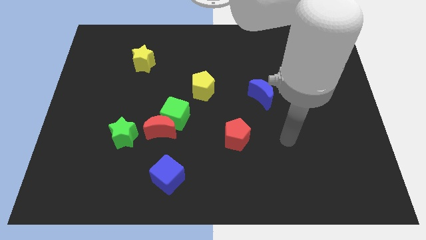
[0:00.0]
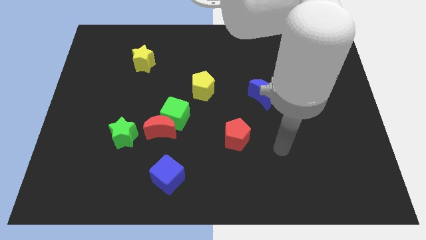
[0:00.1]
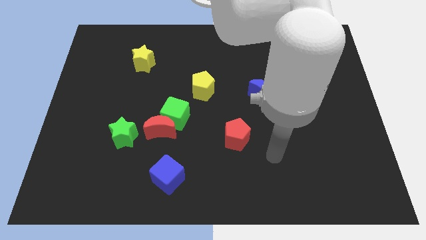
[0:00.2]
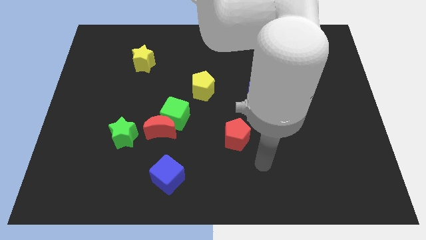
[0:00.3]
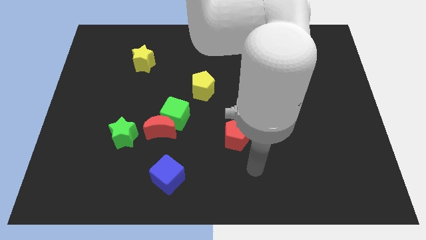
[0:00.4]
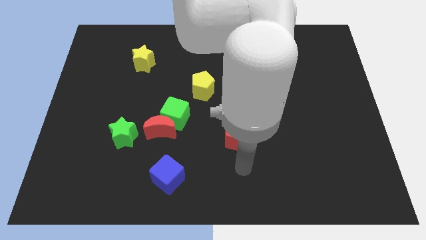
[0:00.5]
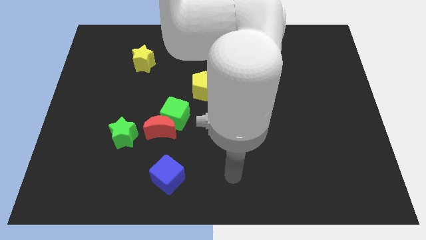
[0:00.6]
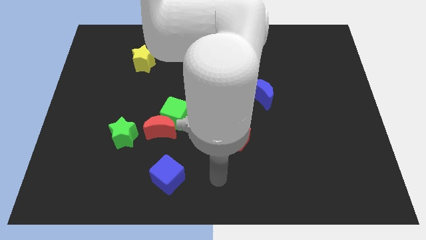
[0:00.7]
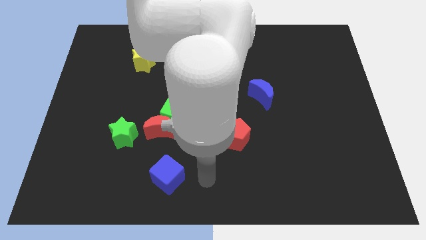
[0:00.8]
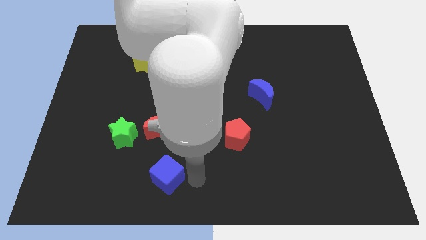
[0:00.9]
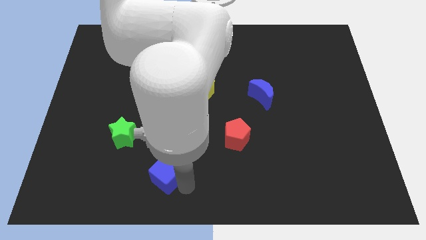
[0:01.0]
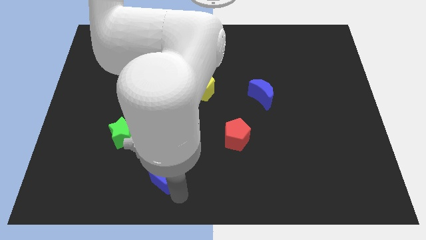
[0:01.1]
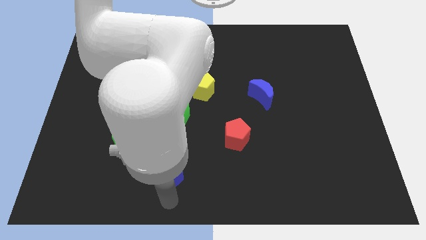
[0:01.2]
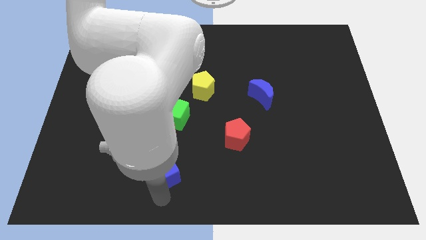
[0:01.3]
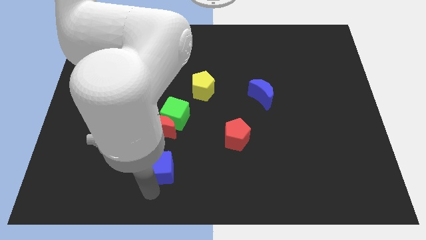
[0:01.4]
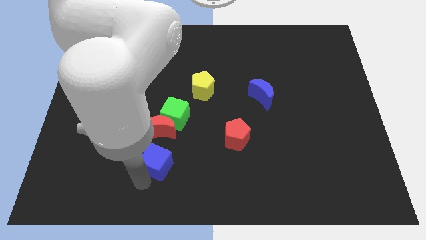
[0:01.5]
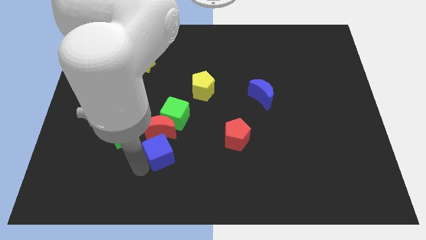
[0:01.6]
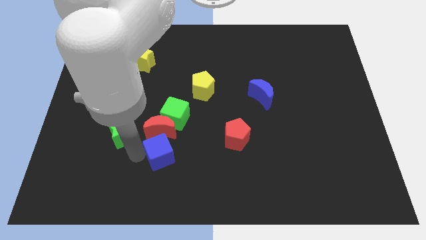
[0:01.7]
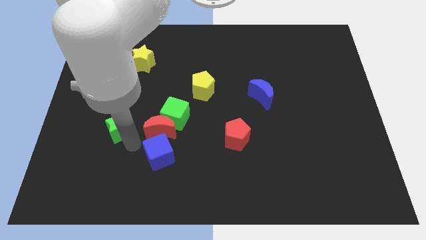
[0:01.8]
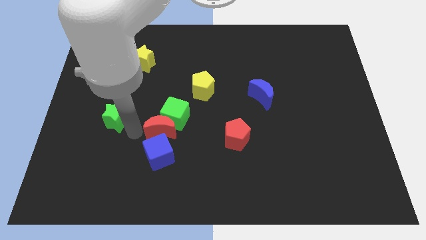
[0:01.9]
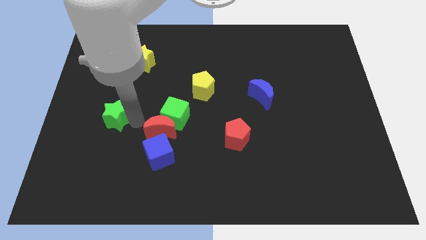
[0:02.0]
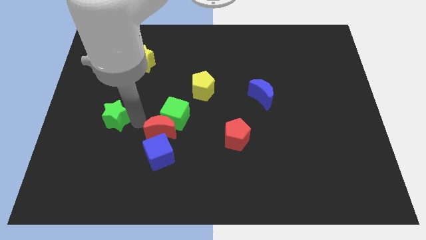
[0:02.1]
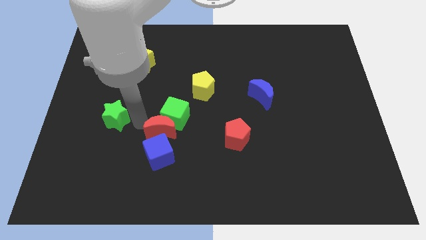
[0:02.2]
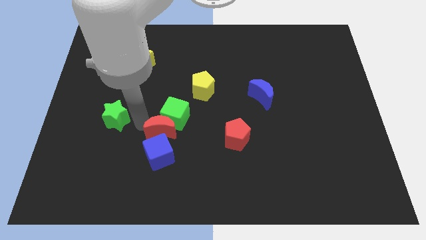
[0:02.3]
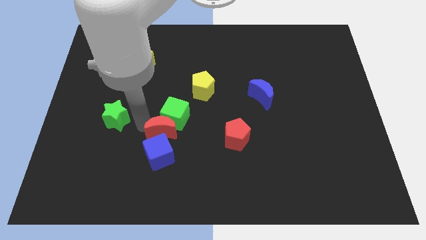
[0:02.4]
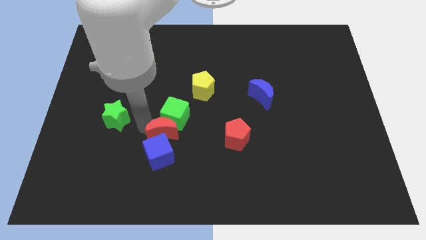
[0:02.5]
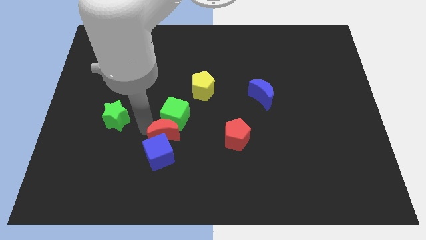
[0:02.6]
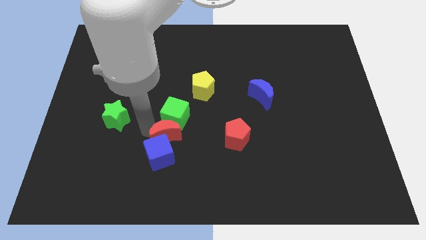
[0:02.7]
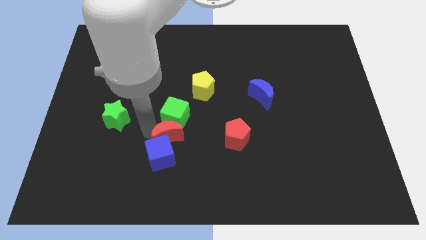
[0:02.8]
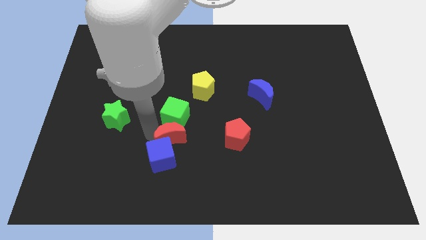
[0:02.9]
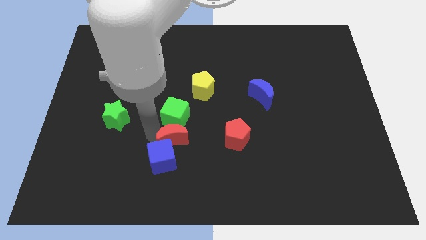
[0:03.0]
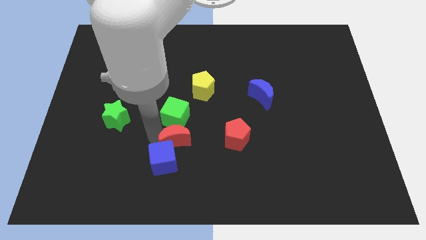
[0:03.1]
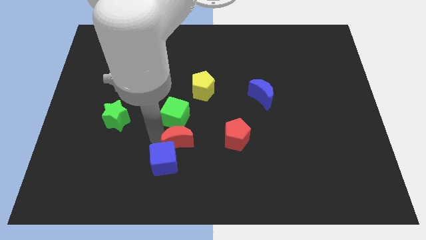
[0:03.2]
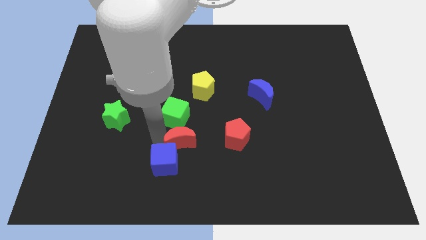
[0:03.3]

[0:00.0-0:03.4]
separate the red moon from the green cube and green star

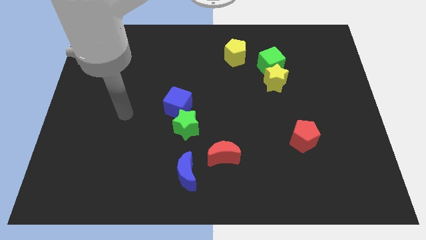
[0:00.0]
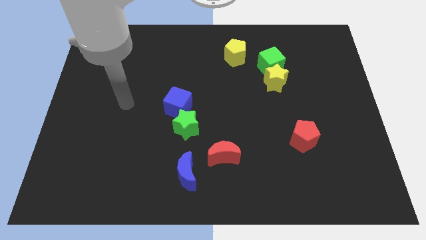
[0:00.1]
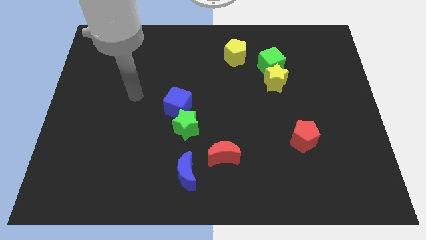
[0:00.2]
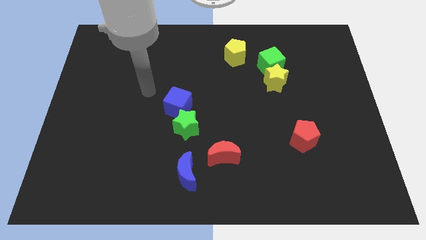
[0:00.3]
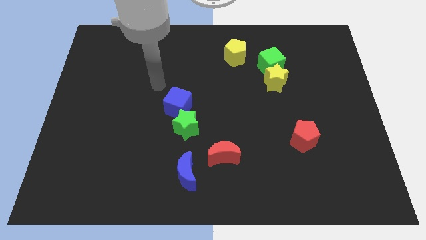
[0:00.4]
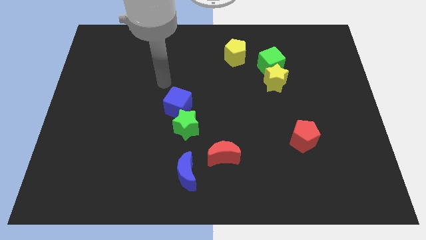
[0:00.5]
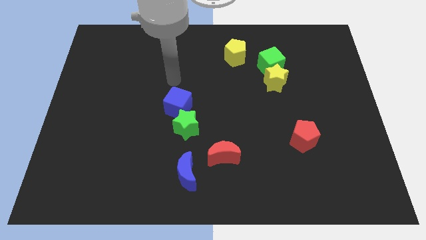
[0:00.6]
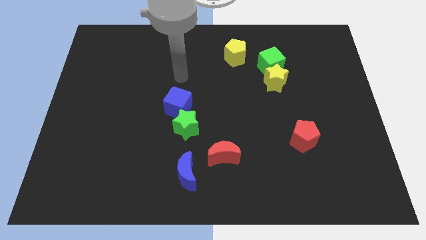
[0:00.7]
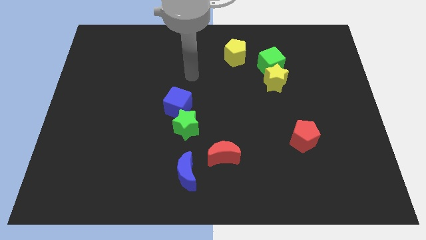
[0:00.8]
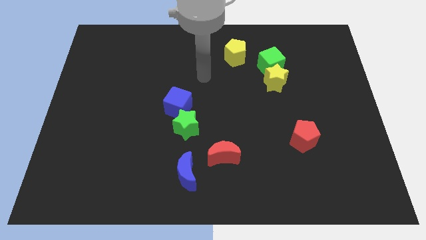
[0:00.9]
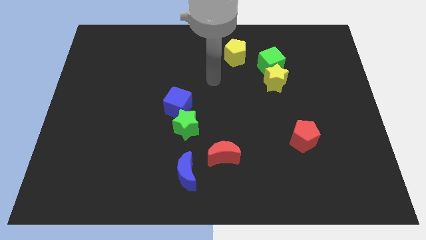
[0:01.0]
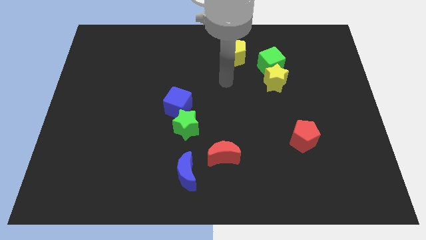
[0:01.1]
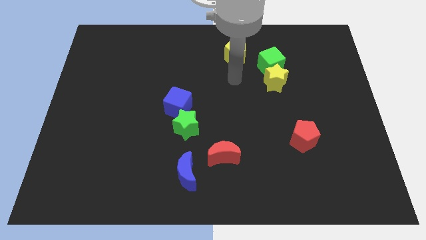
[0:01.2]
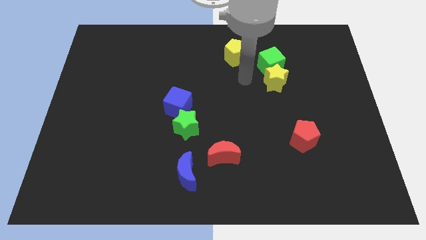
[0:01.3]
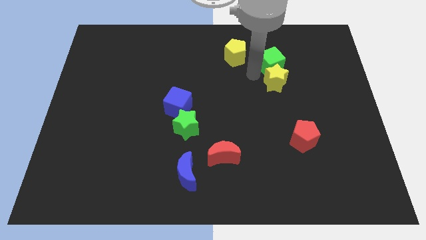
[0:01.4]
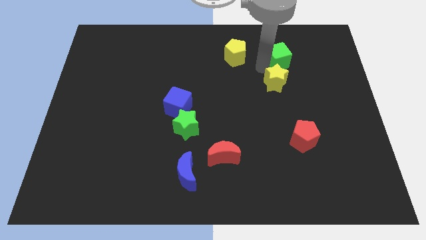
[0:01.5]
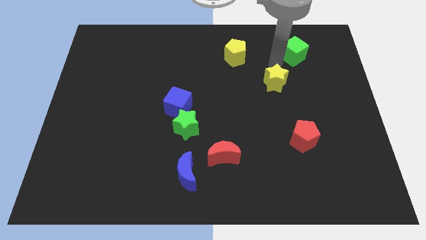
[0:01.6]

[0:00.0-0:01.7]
separate the yellow star from the green cube

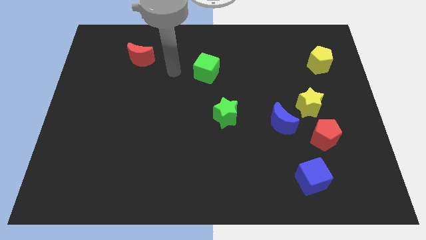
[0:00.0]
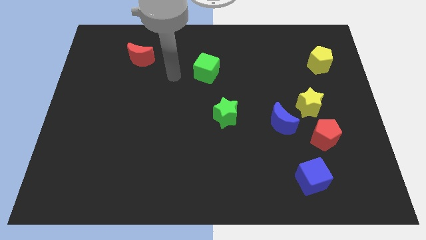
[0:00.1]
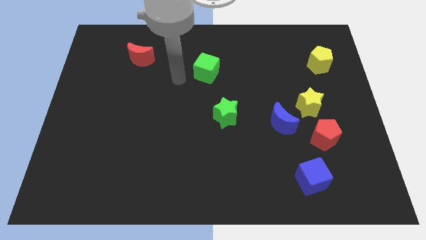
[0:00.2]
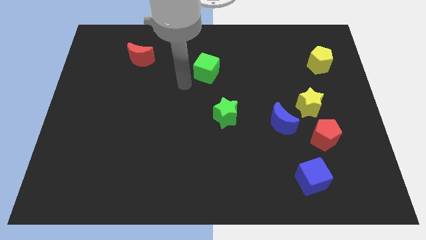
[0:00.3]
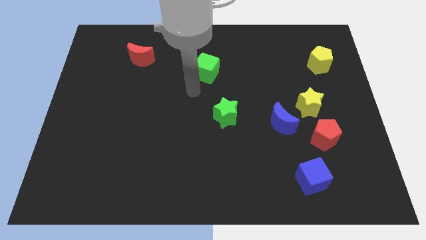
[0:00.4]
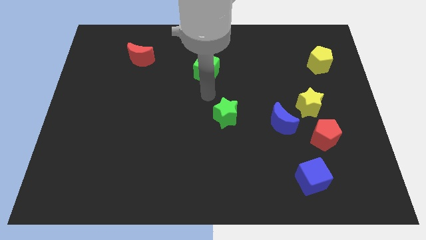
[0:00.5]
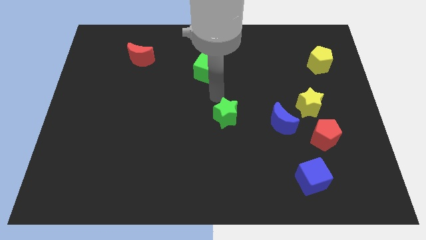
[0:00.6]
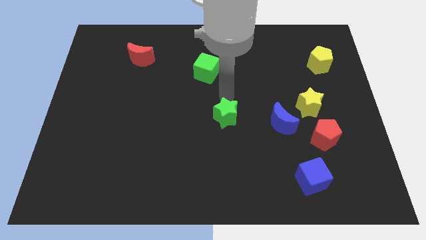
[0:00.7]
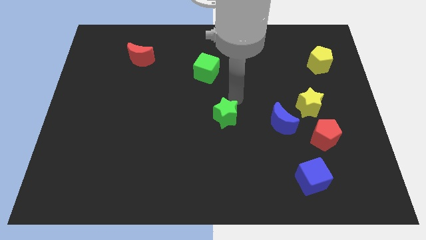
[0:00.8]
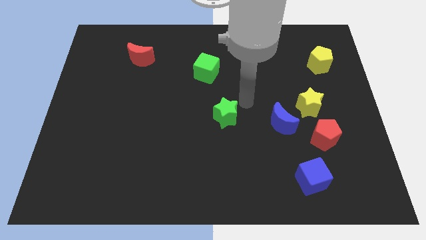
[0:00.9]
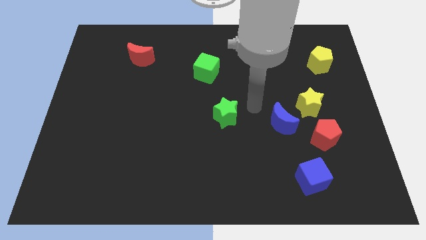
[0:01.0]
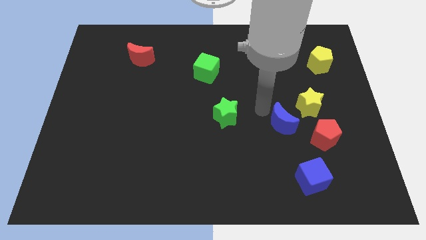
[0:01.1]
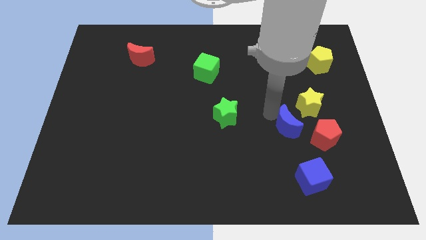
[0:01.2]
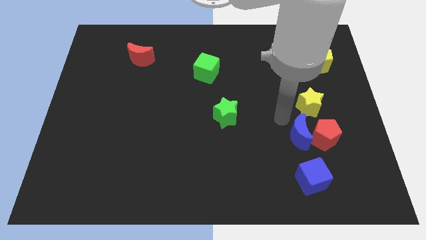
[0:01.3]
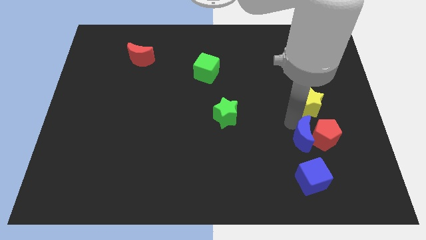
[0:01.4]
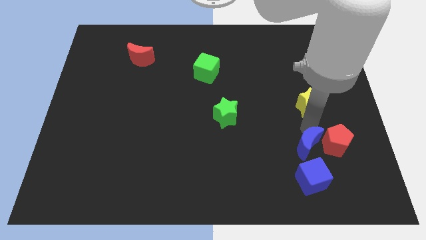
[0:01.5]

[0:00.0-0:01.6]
move the yellow star away from the blue moon and red pentagon

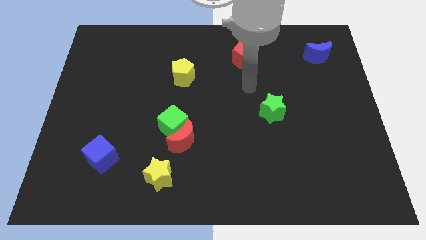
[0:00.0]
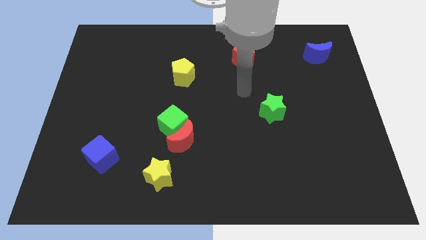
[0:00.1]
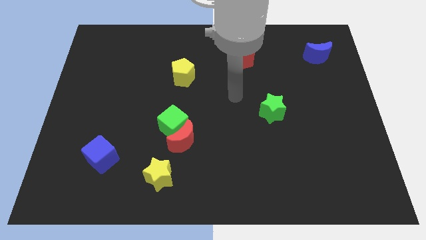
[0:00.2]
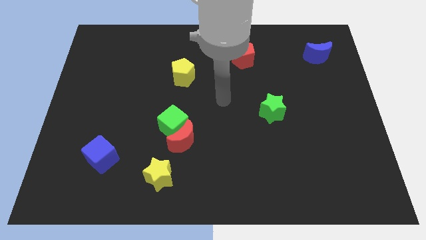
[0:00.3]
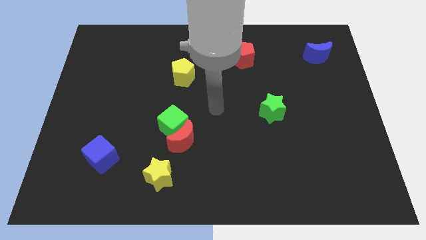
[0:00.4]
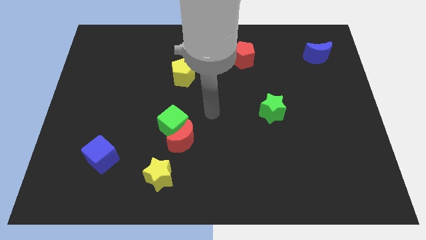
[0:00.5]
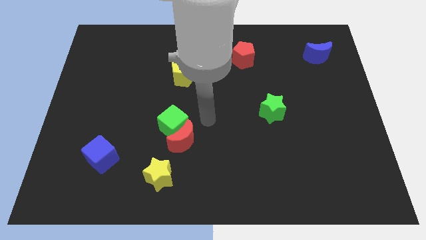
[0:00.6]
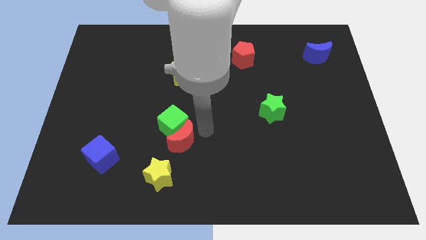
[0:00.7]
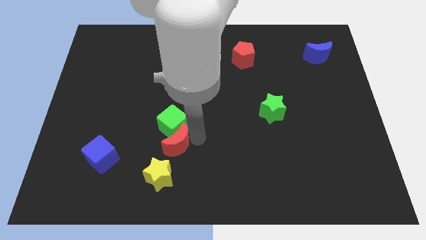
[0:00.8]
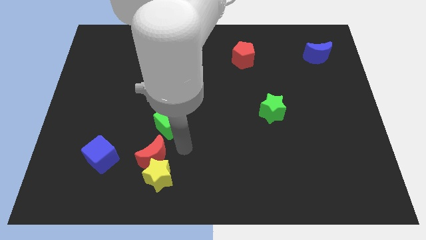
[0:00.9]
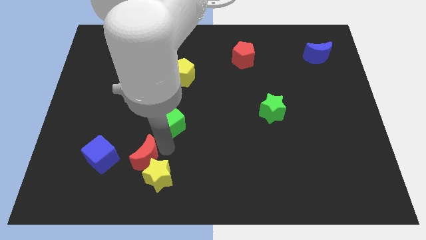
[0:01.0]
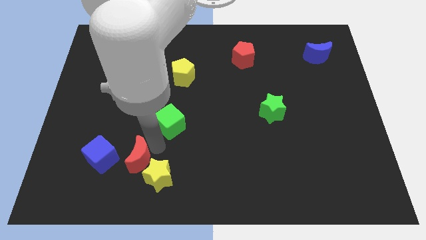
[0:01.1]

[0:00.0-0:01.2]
move the green cube away from the red moon

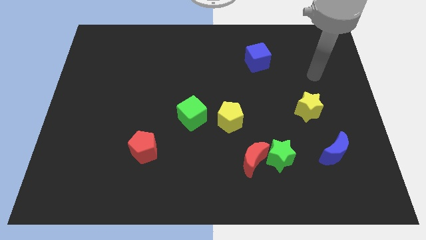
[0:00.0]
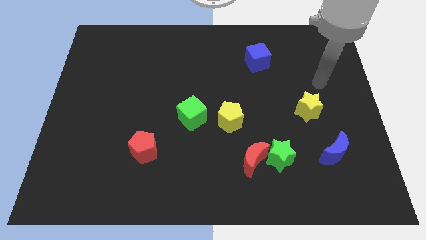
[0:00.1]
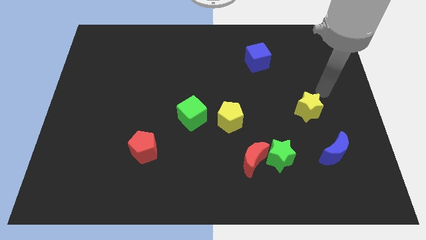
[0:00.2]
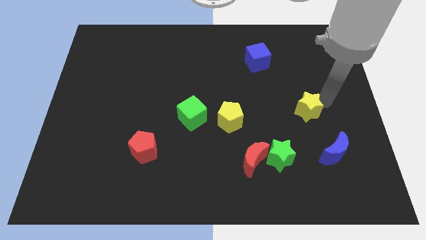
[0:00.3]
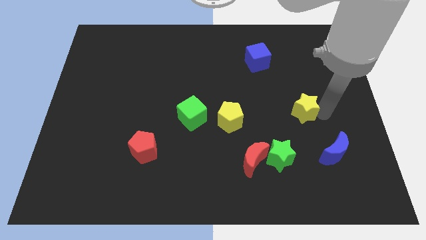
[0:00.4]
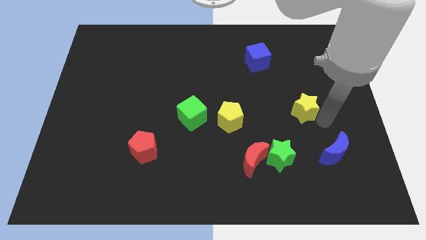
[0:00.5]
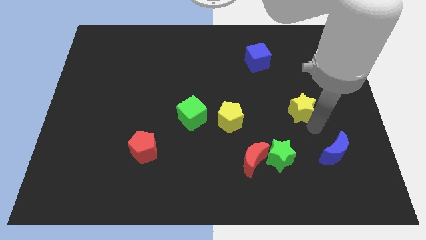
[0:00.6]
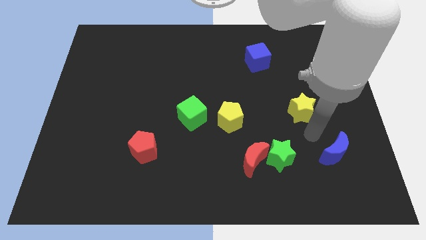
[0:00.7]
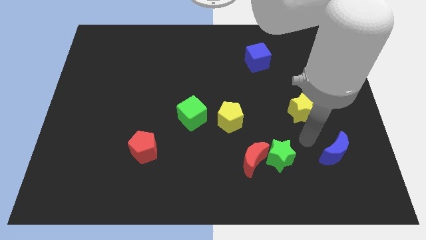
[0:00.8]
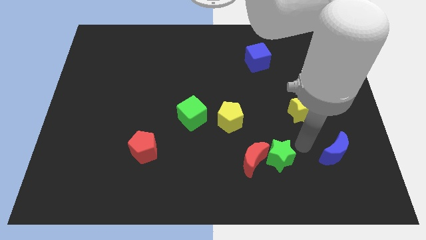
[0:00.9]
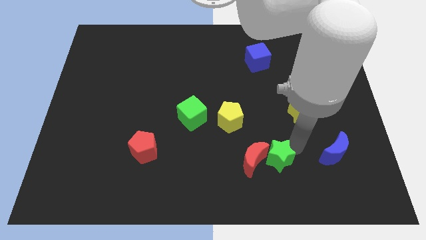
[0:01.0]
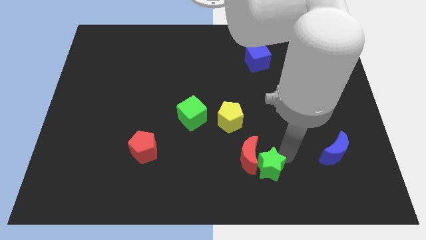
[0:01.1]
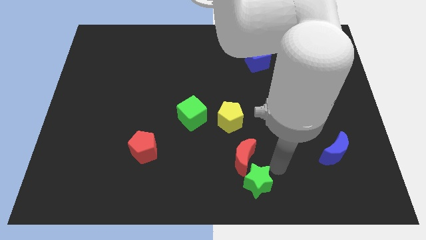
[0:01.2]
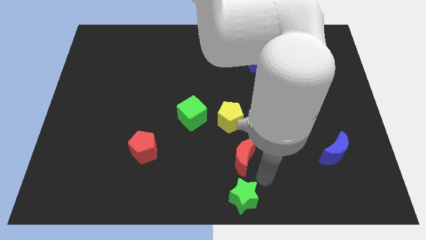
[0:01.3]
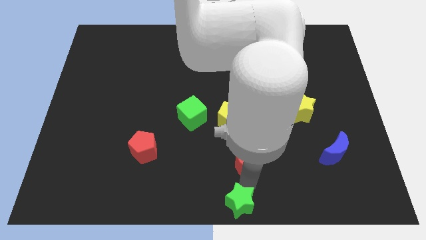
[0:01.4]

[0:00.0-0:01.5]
pull the red moon apart from the green star
